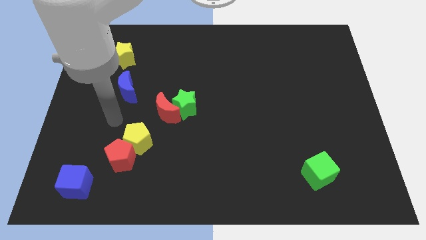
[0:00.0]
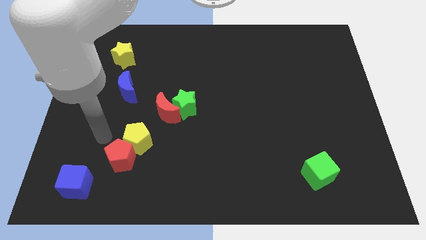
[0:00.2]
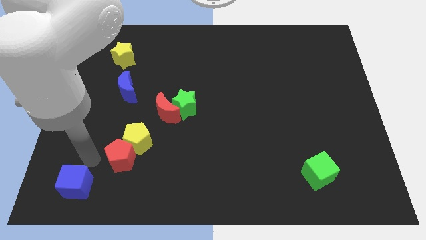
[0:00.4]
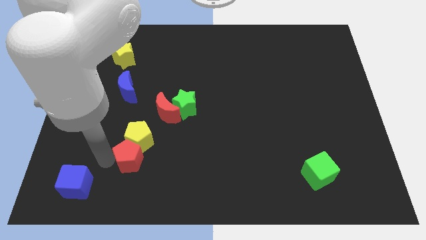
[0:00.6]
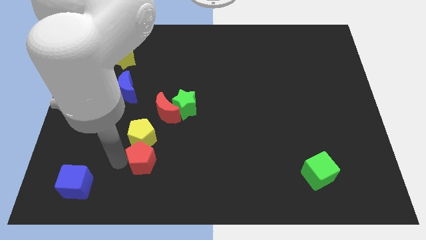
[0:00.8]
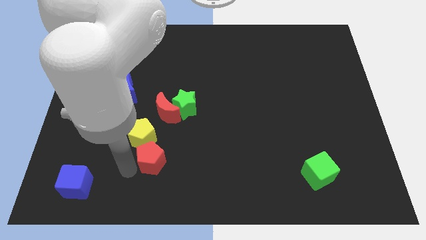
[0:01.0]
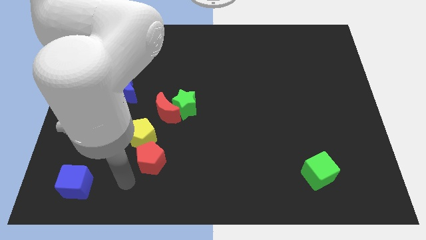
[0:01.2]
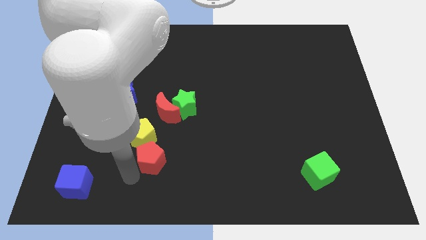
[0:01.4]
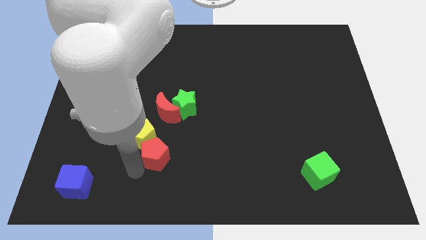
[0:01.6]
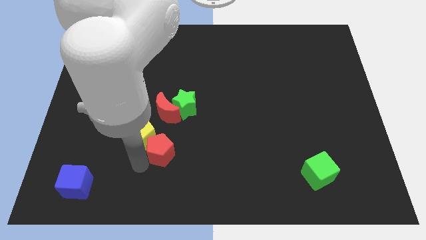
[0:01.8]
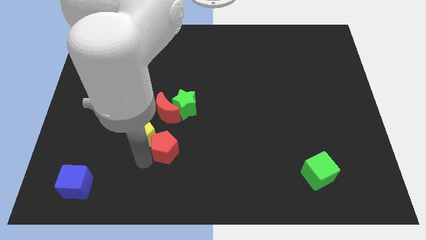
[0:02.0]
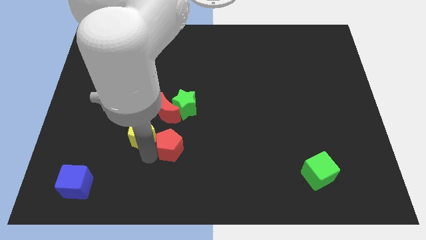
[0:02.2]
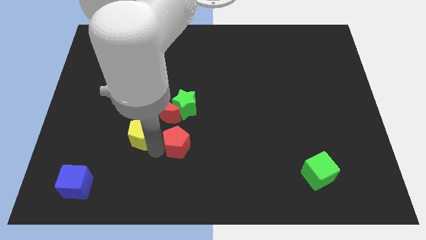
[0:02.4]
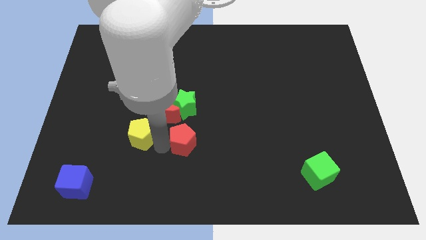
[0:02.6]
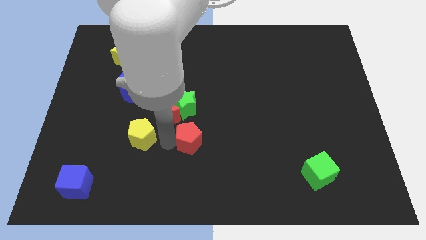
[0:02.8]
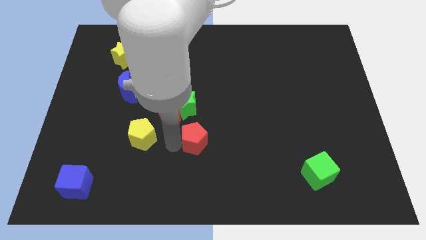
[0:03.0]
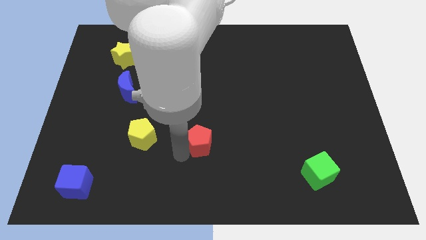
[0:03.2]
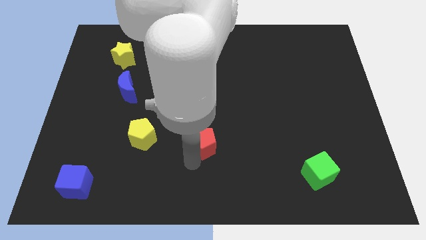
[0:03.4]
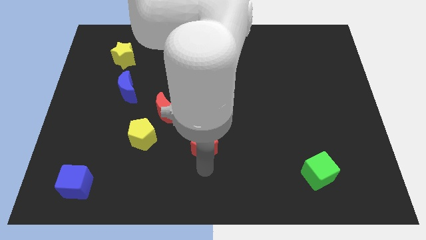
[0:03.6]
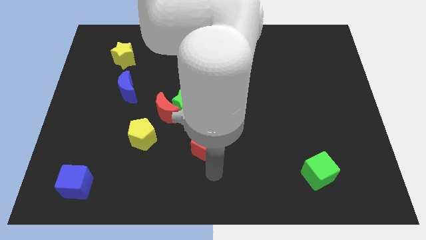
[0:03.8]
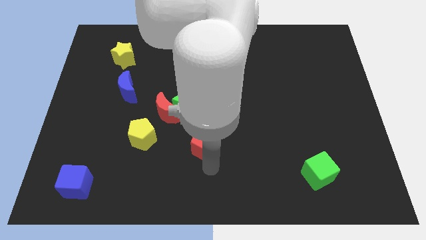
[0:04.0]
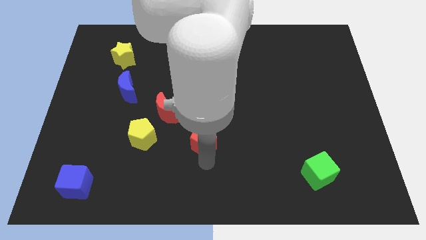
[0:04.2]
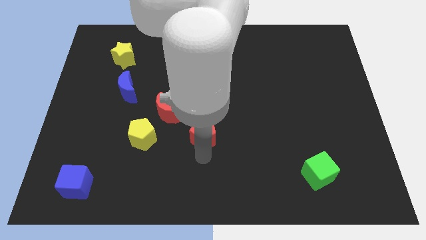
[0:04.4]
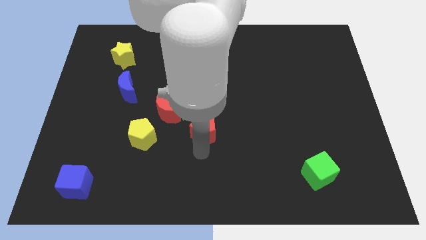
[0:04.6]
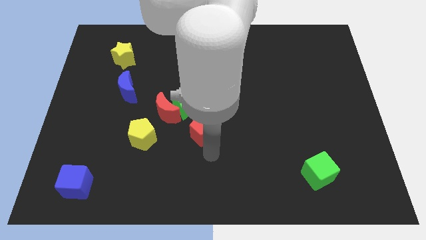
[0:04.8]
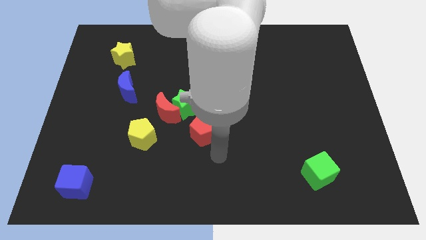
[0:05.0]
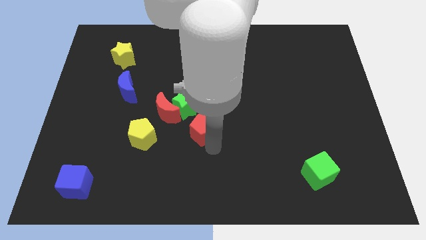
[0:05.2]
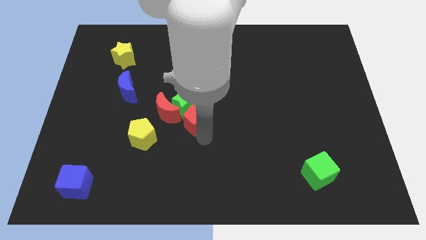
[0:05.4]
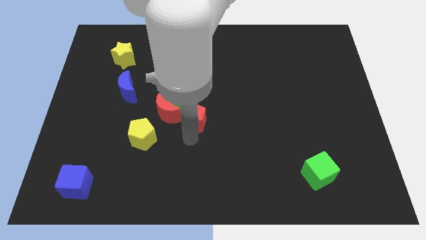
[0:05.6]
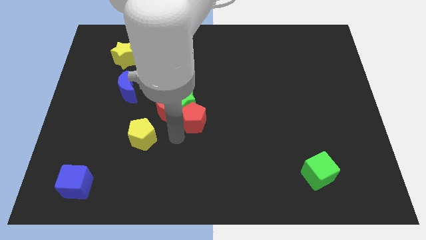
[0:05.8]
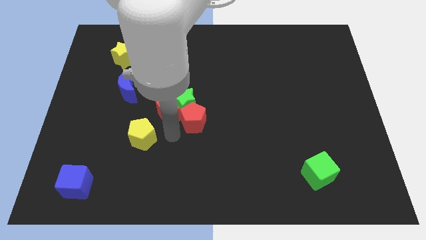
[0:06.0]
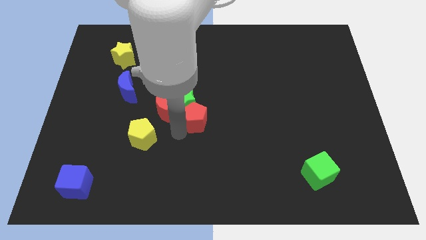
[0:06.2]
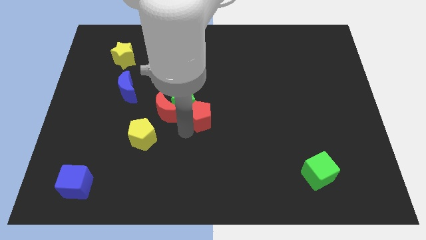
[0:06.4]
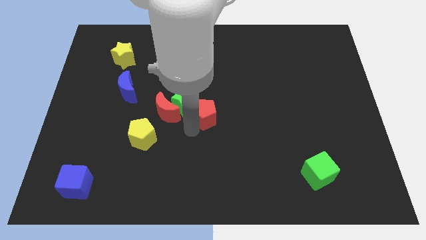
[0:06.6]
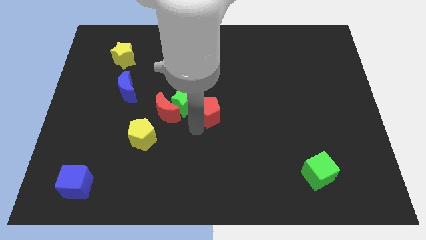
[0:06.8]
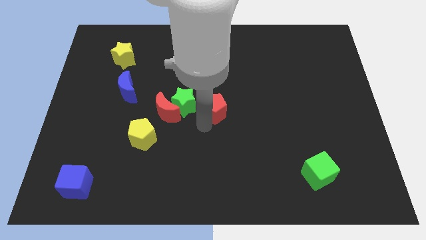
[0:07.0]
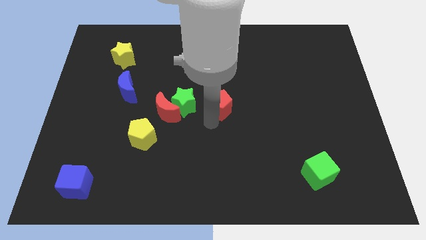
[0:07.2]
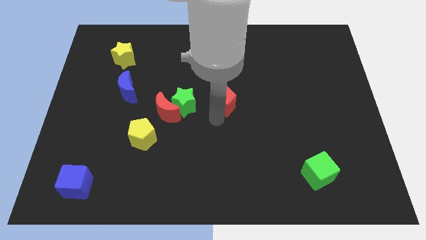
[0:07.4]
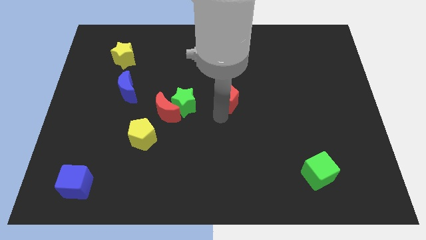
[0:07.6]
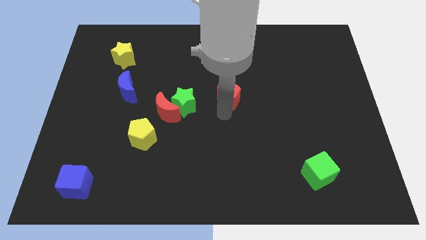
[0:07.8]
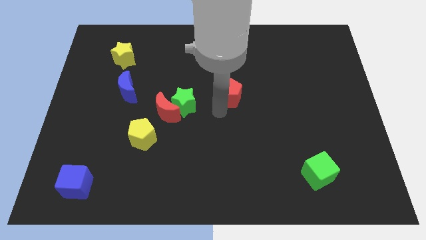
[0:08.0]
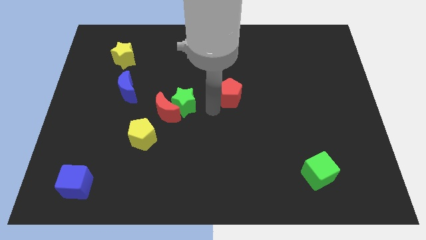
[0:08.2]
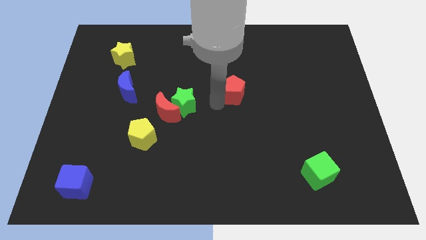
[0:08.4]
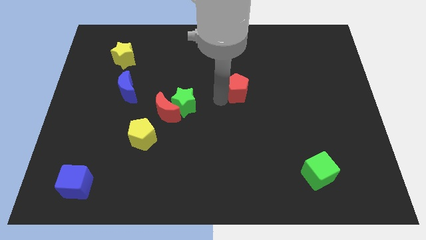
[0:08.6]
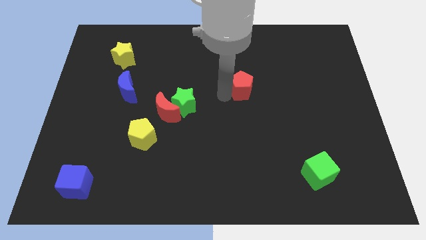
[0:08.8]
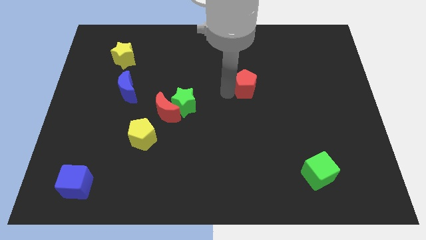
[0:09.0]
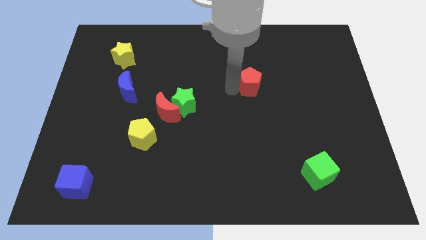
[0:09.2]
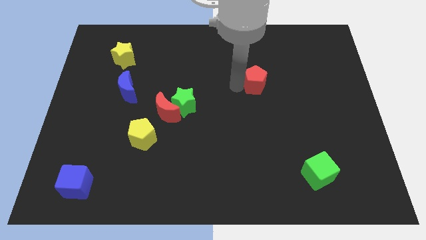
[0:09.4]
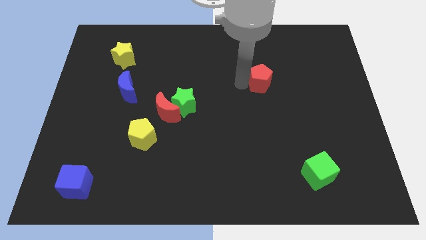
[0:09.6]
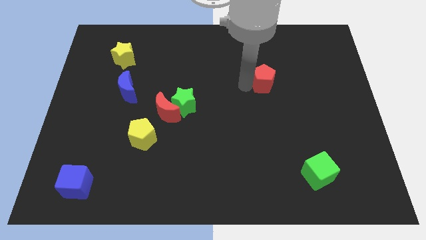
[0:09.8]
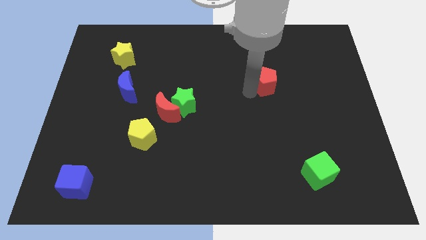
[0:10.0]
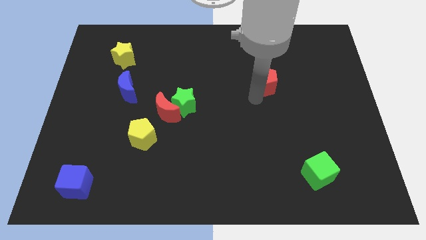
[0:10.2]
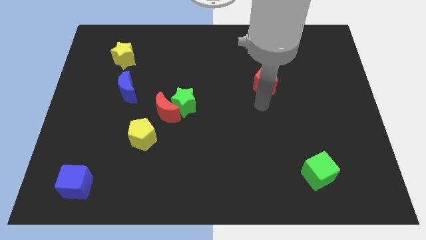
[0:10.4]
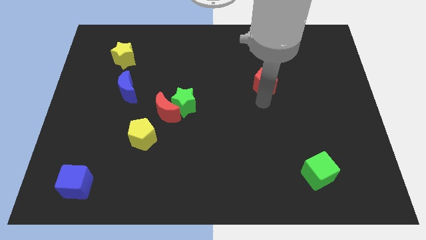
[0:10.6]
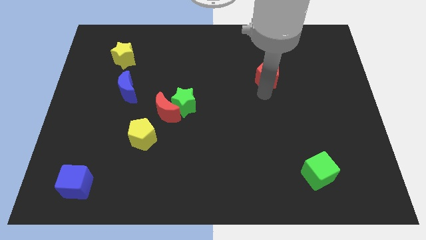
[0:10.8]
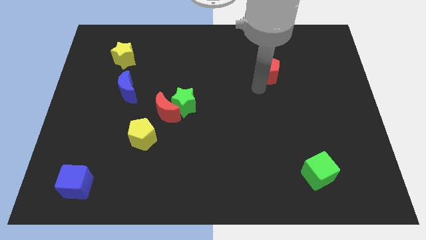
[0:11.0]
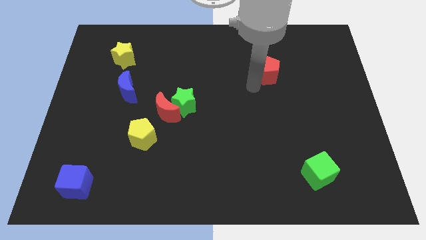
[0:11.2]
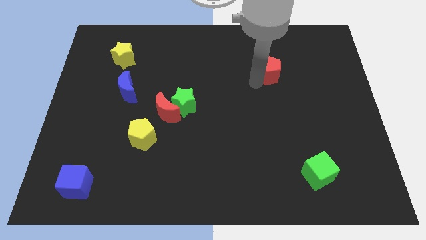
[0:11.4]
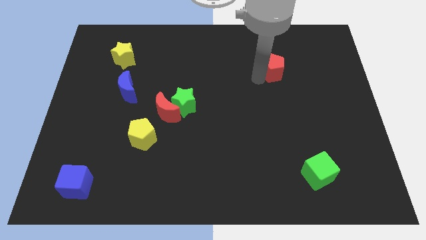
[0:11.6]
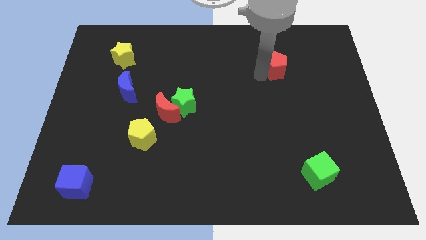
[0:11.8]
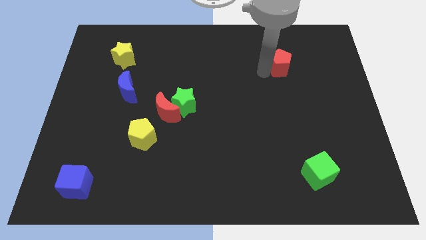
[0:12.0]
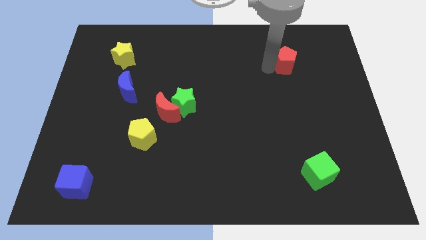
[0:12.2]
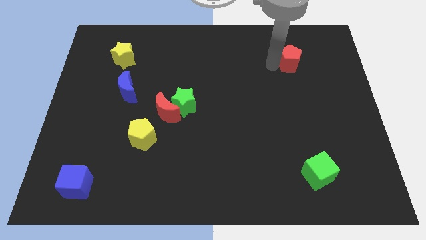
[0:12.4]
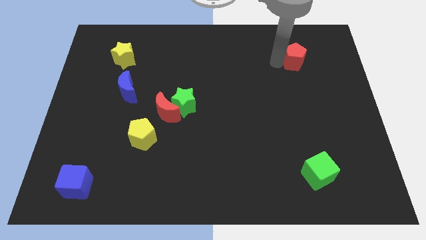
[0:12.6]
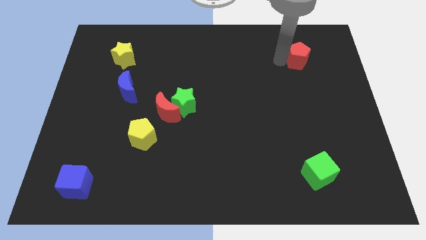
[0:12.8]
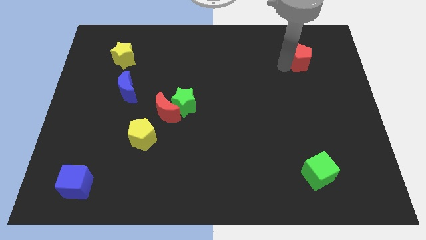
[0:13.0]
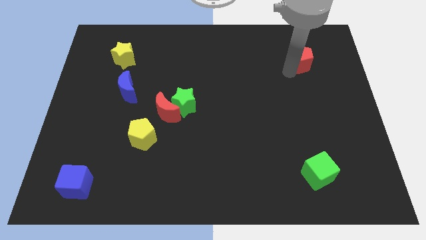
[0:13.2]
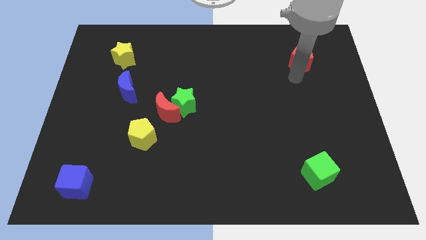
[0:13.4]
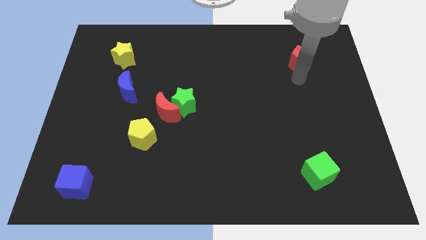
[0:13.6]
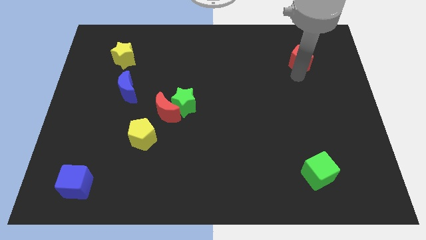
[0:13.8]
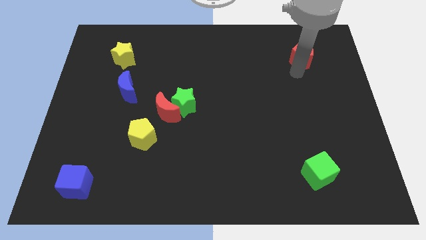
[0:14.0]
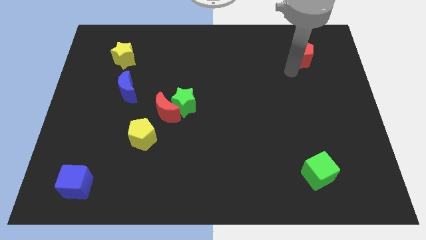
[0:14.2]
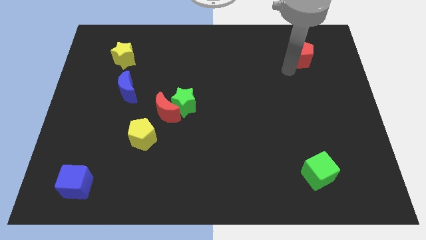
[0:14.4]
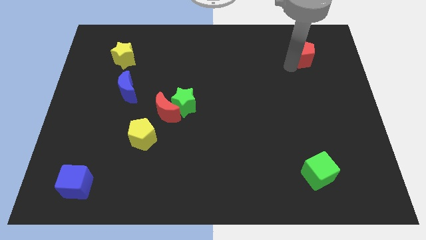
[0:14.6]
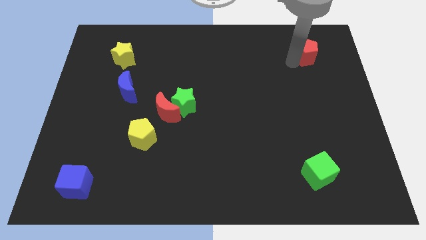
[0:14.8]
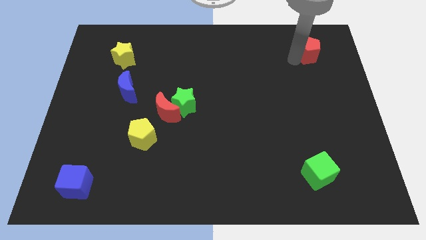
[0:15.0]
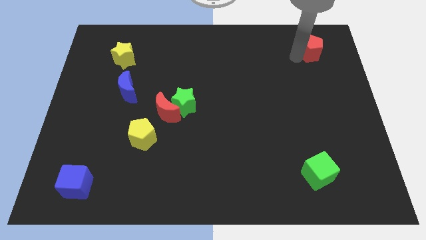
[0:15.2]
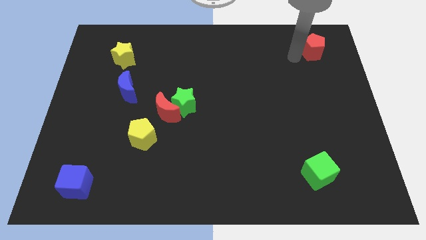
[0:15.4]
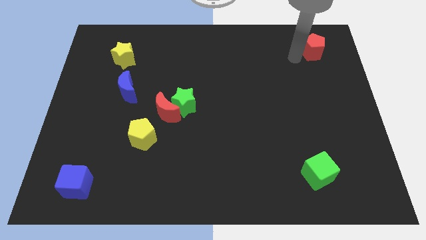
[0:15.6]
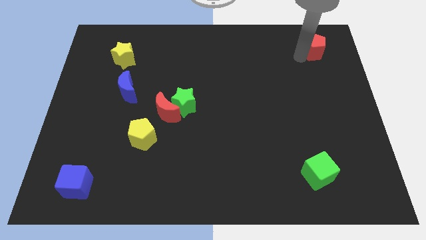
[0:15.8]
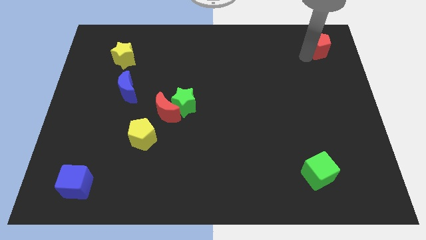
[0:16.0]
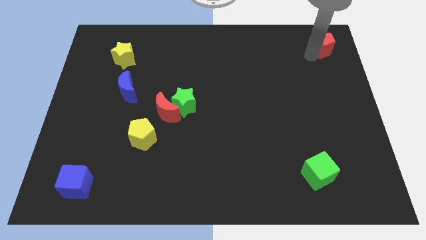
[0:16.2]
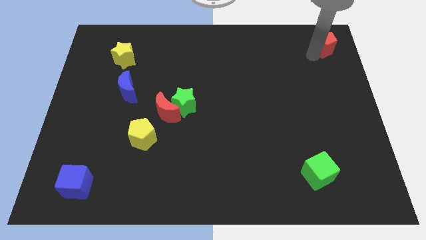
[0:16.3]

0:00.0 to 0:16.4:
slide the red pentagon to the top right of the board
